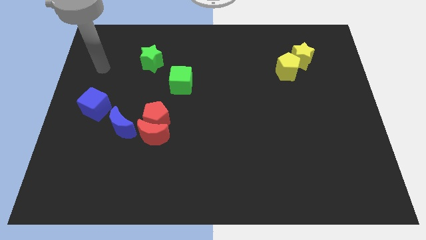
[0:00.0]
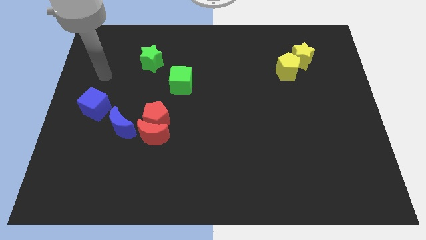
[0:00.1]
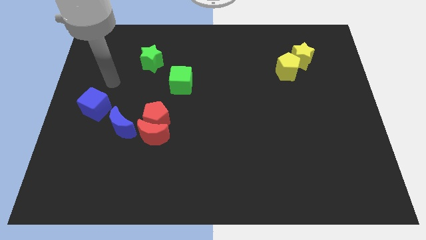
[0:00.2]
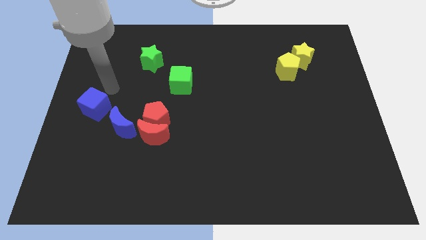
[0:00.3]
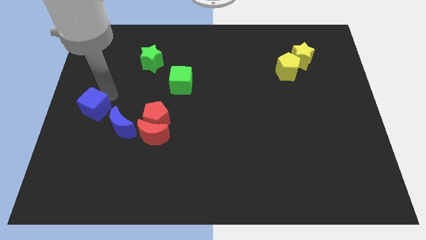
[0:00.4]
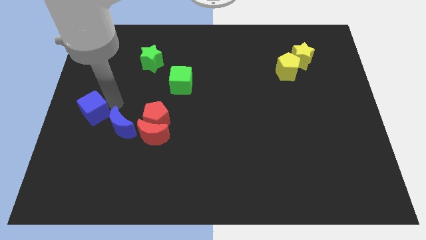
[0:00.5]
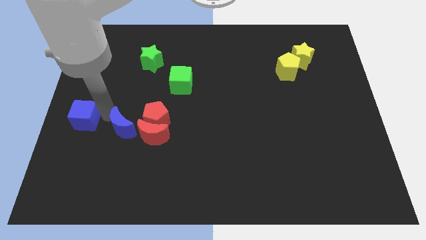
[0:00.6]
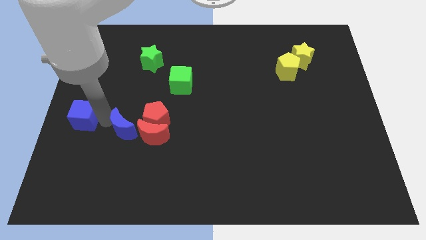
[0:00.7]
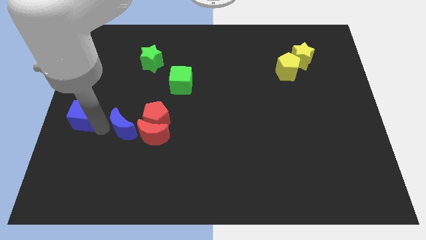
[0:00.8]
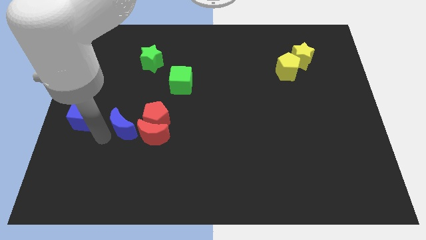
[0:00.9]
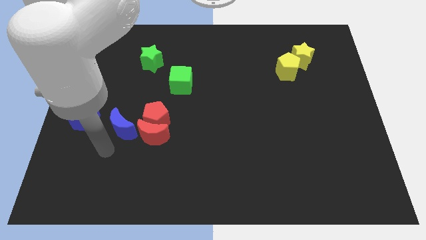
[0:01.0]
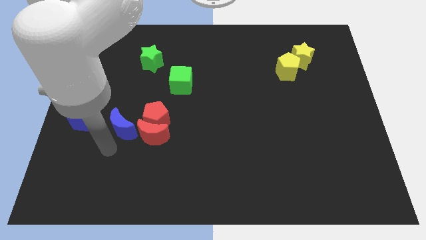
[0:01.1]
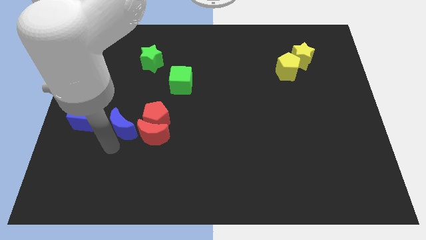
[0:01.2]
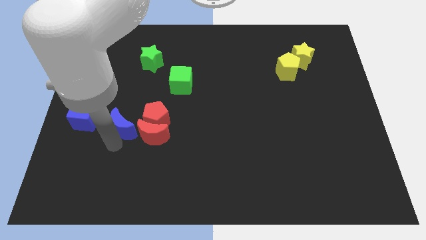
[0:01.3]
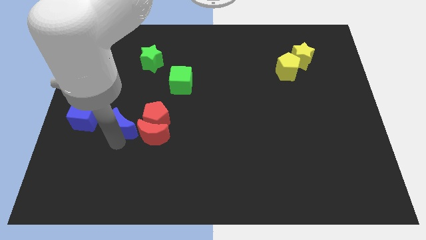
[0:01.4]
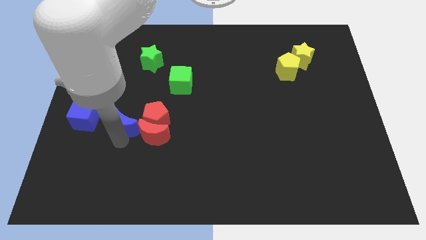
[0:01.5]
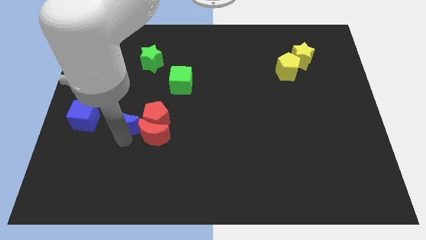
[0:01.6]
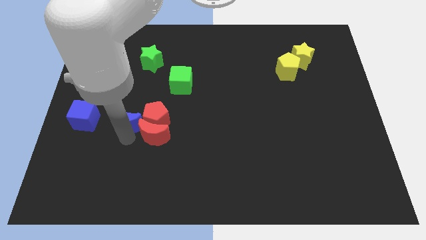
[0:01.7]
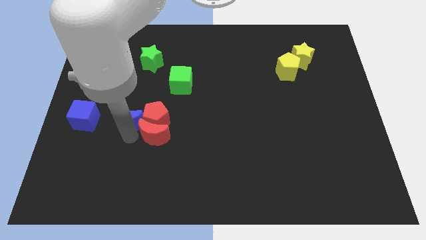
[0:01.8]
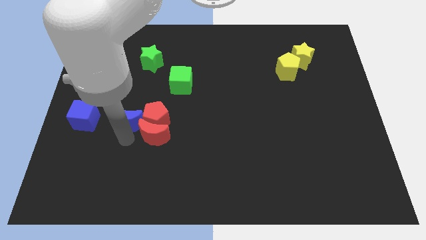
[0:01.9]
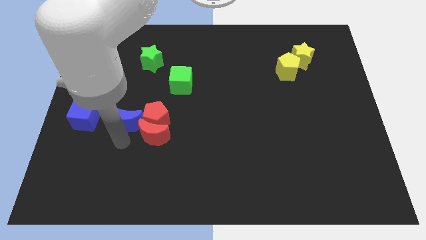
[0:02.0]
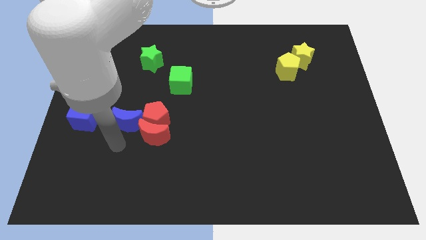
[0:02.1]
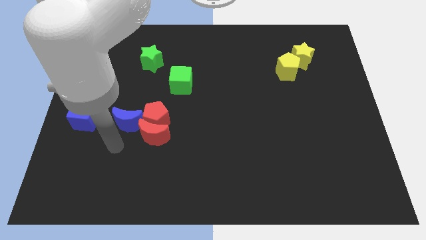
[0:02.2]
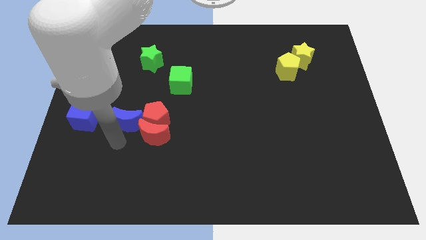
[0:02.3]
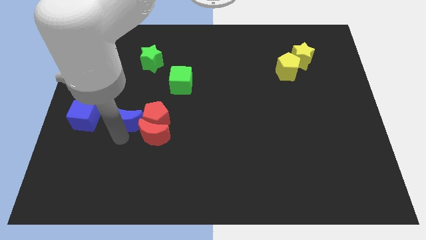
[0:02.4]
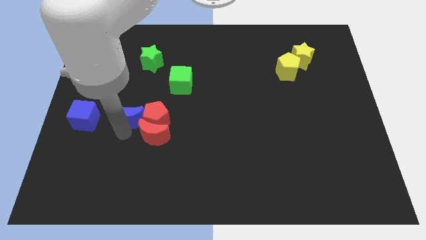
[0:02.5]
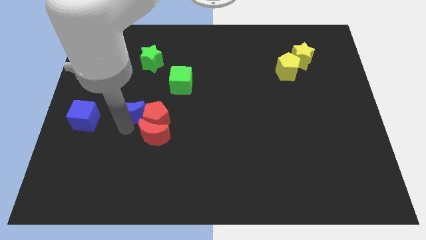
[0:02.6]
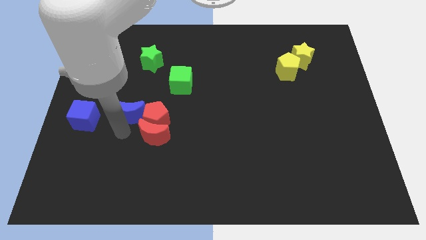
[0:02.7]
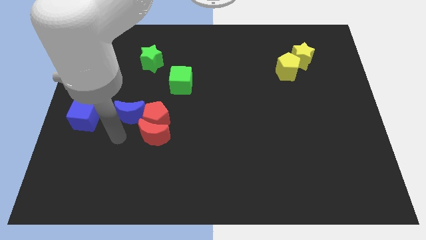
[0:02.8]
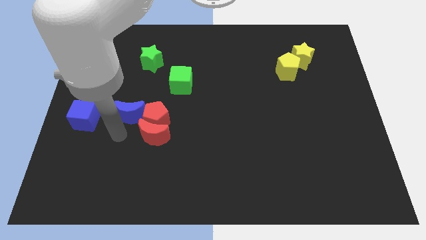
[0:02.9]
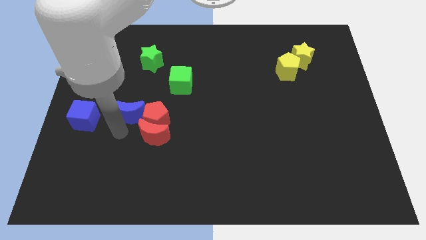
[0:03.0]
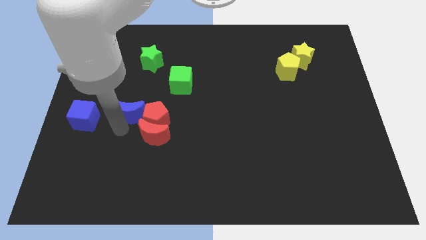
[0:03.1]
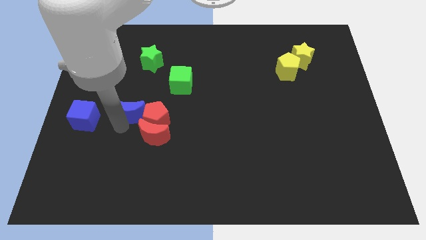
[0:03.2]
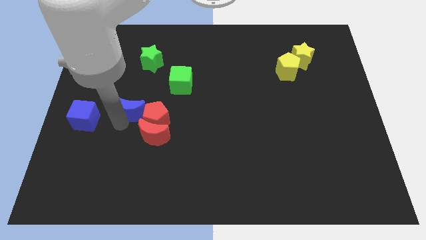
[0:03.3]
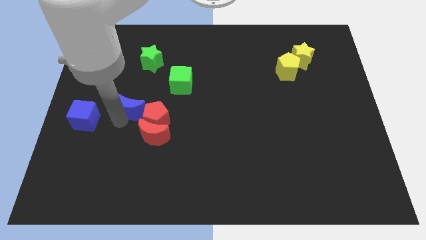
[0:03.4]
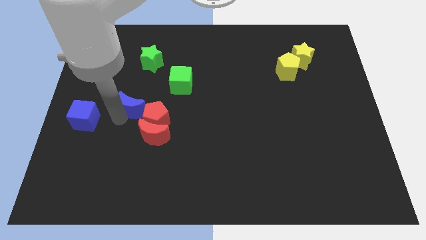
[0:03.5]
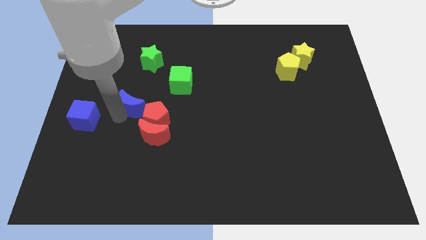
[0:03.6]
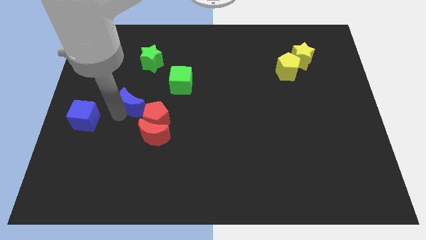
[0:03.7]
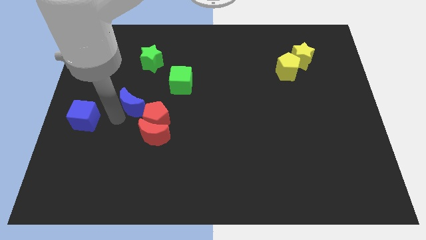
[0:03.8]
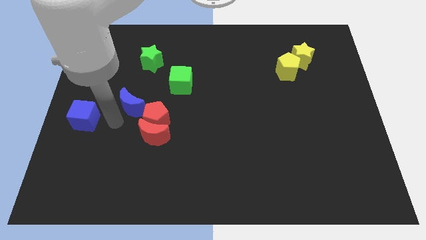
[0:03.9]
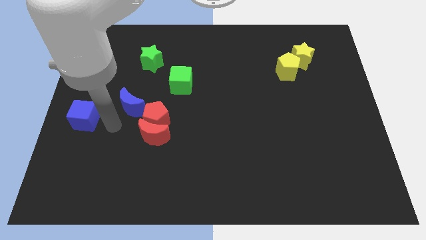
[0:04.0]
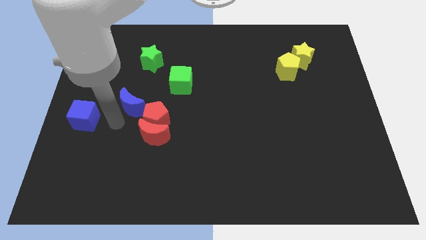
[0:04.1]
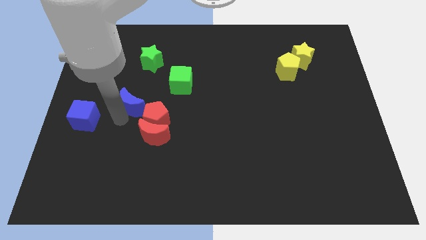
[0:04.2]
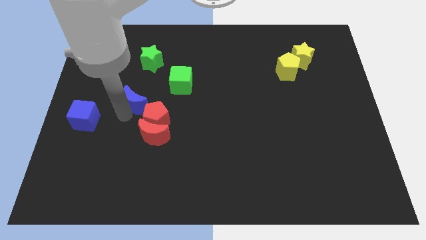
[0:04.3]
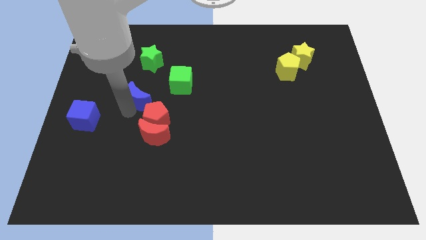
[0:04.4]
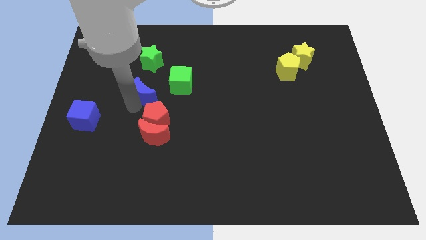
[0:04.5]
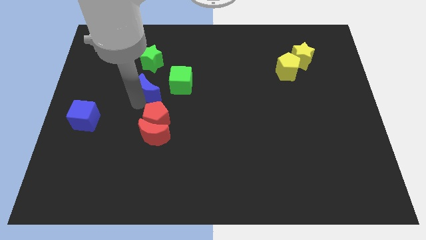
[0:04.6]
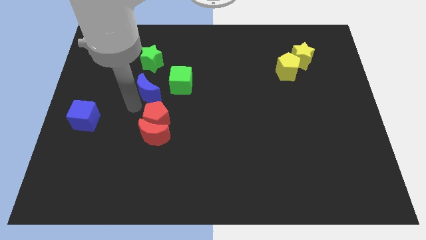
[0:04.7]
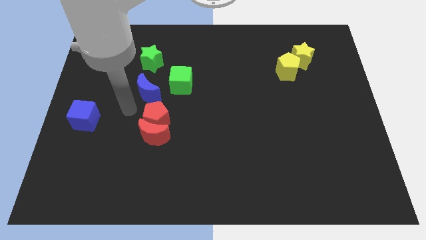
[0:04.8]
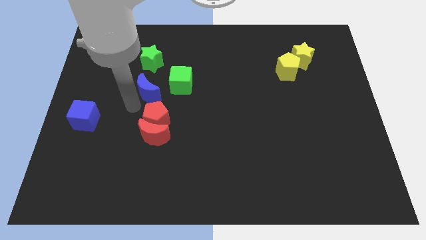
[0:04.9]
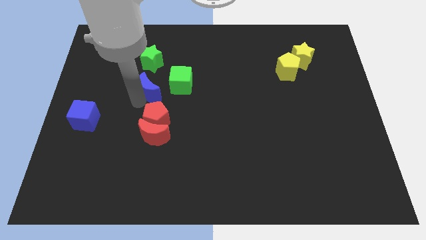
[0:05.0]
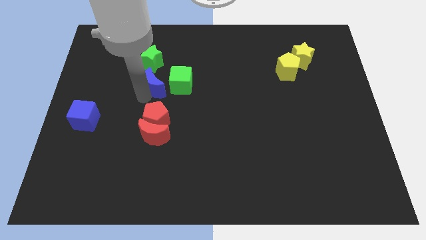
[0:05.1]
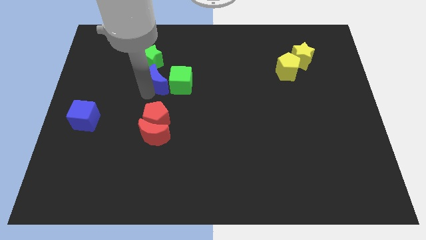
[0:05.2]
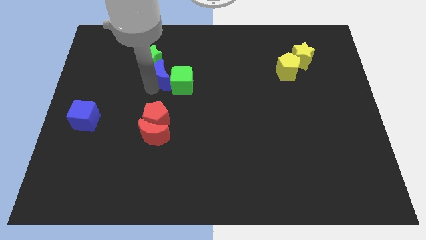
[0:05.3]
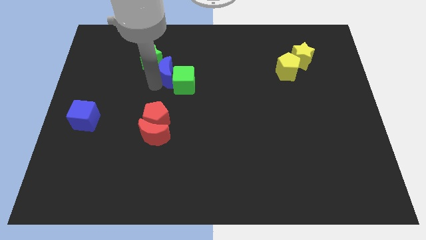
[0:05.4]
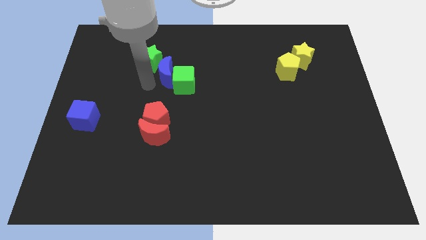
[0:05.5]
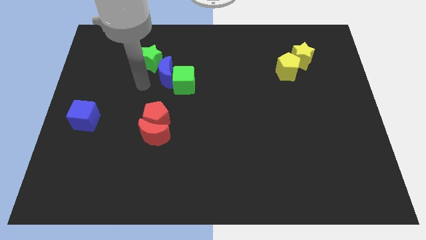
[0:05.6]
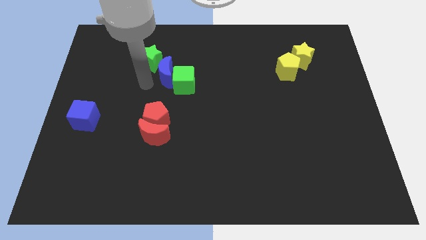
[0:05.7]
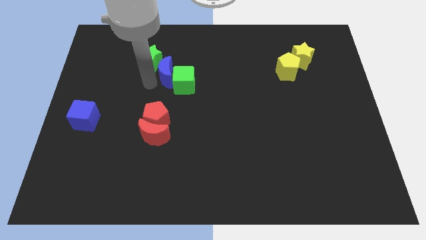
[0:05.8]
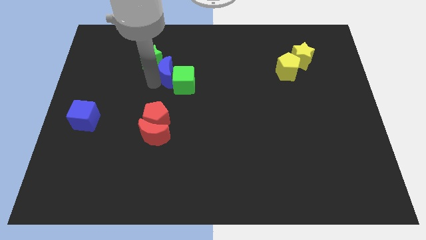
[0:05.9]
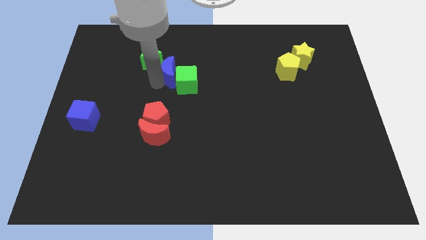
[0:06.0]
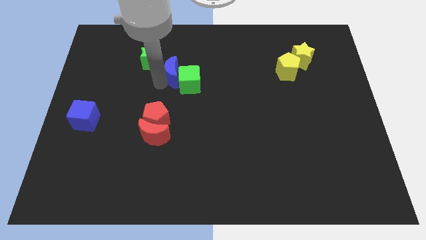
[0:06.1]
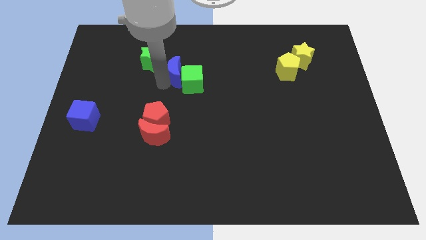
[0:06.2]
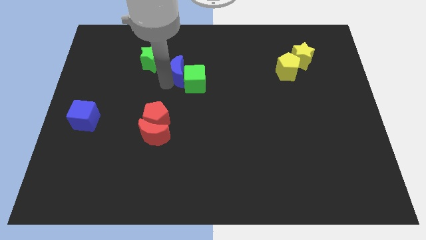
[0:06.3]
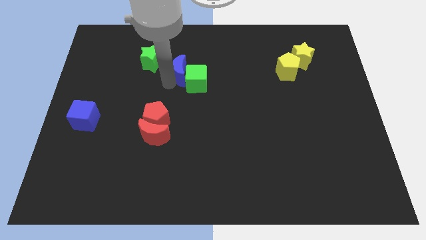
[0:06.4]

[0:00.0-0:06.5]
move the blue moon upwards and right

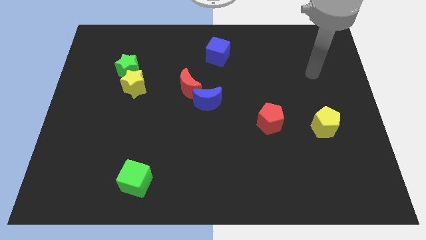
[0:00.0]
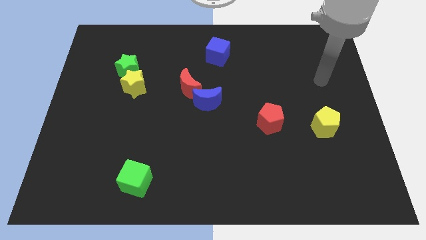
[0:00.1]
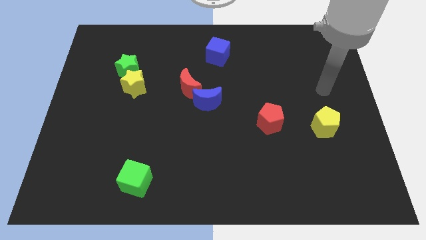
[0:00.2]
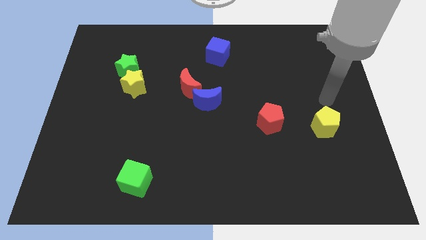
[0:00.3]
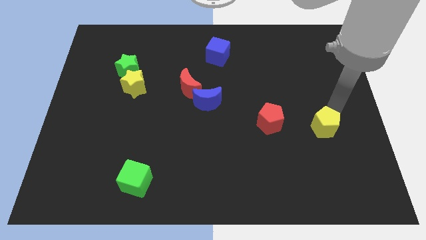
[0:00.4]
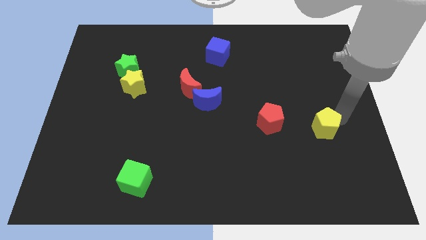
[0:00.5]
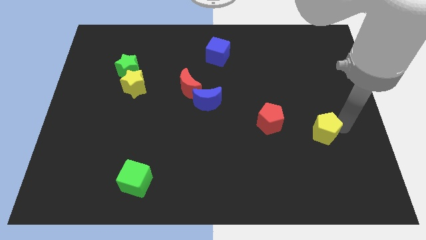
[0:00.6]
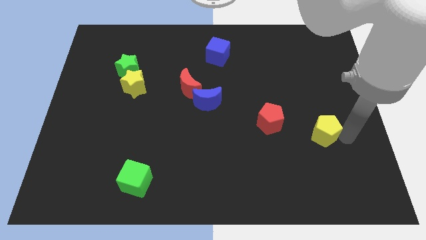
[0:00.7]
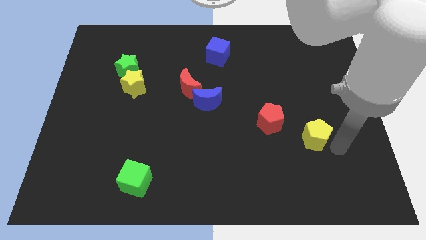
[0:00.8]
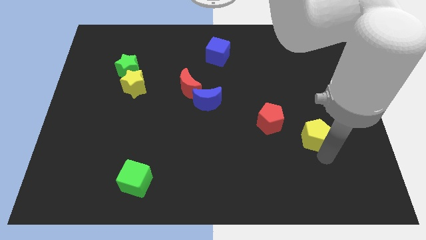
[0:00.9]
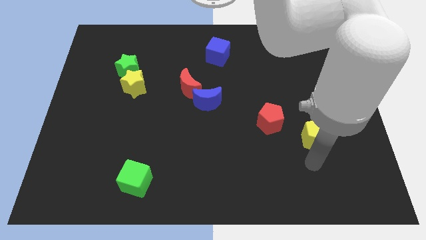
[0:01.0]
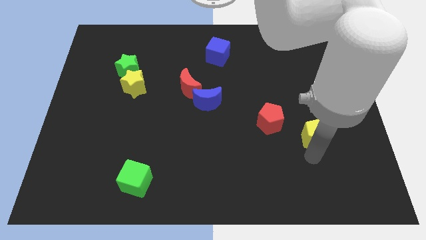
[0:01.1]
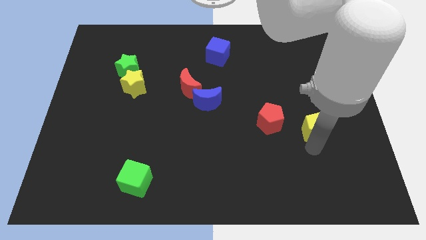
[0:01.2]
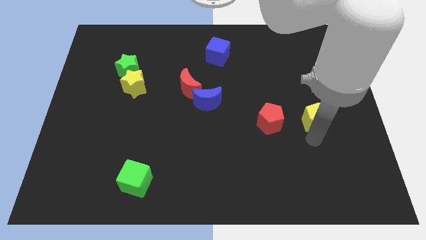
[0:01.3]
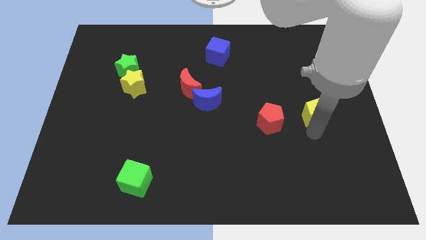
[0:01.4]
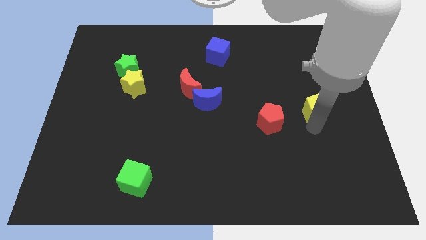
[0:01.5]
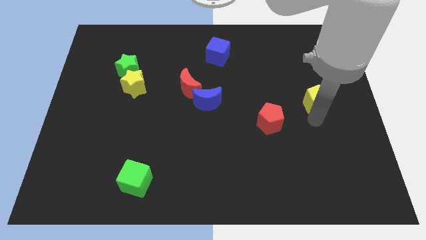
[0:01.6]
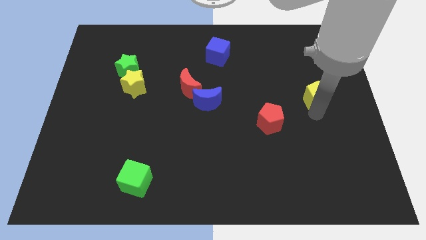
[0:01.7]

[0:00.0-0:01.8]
slightly push the yellow pentagon upwards
